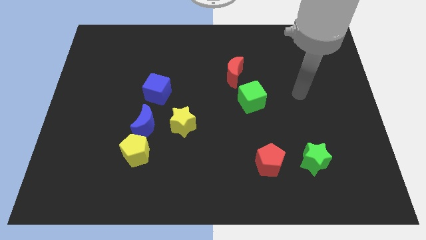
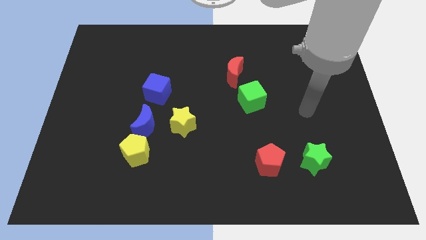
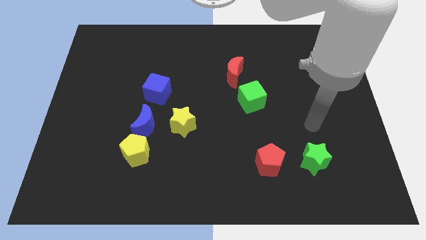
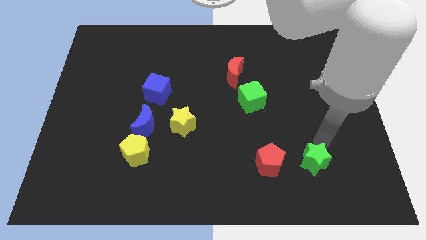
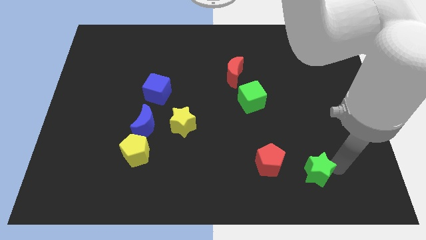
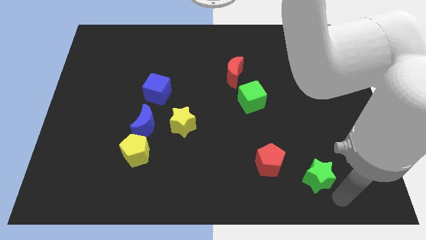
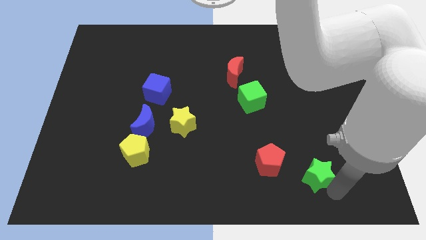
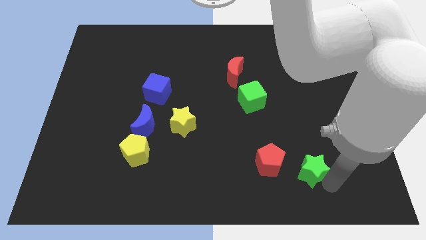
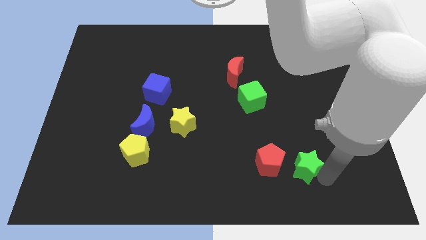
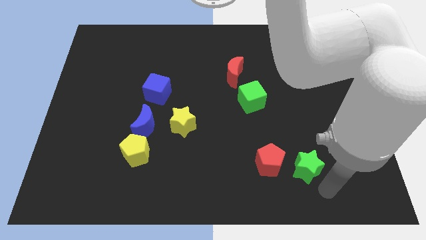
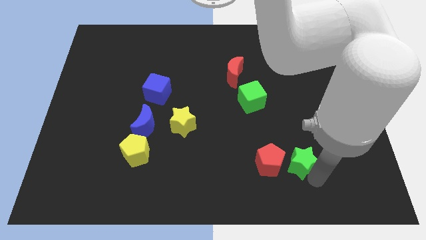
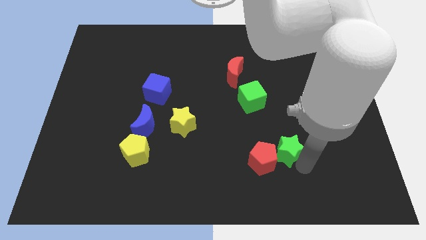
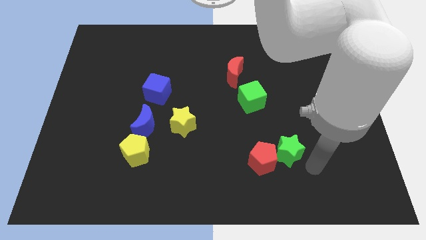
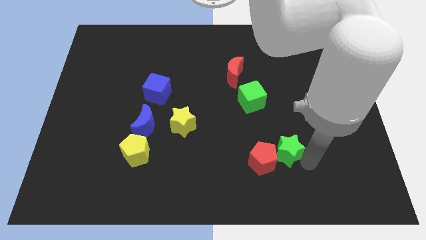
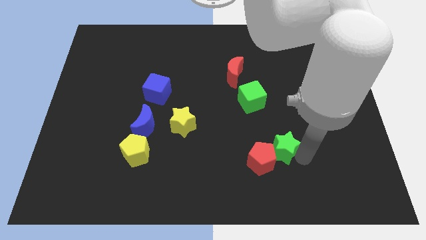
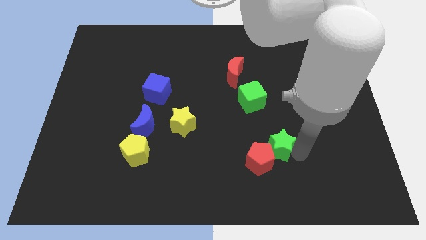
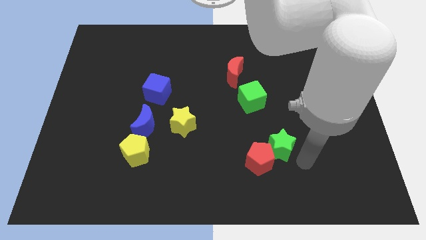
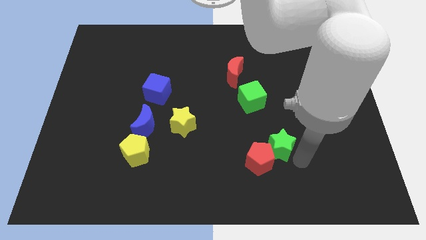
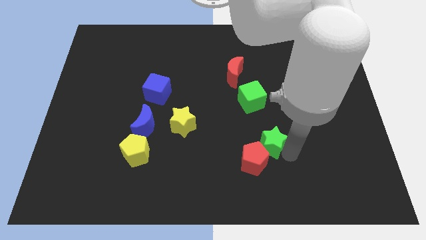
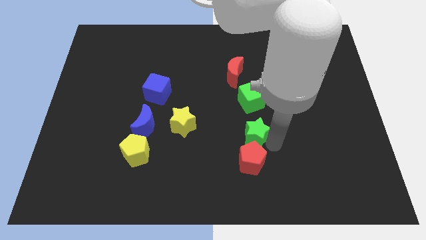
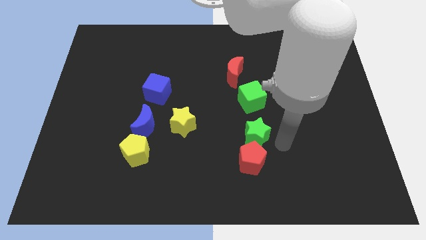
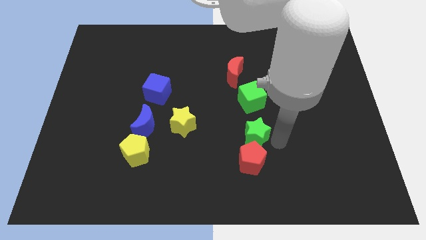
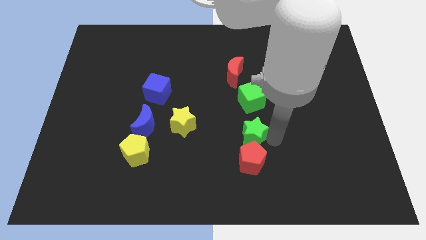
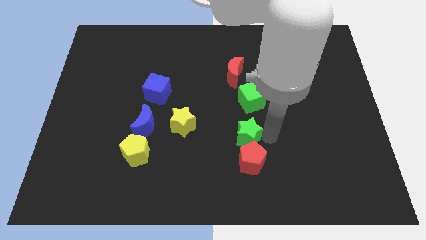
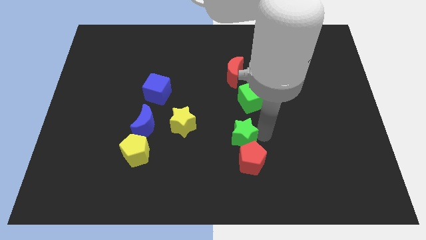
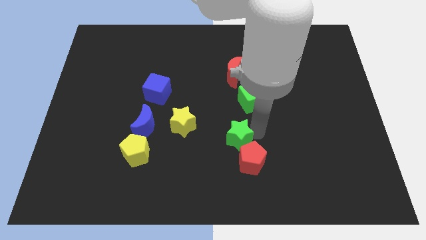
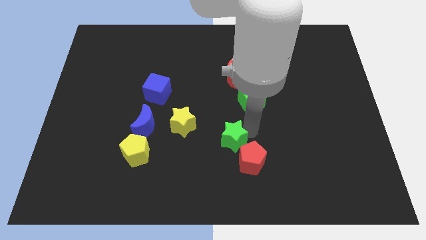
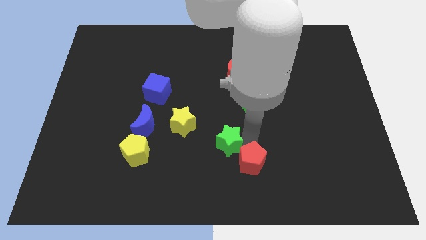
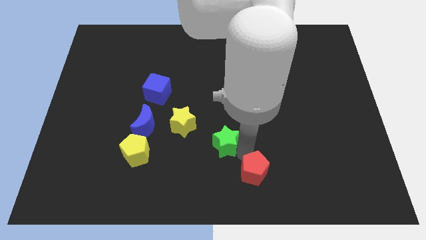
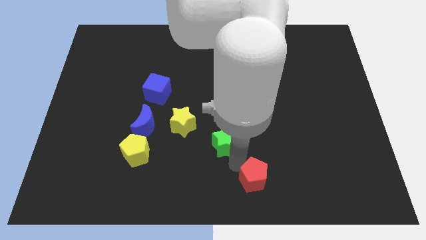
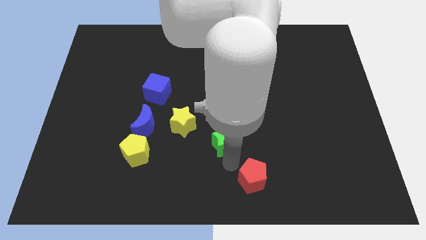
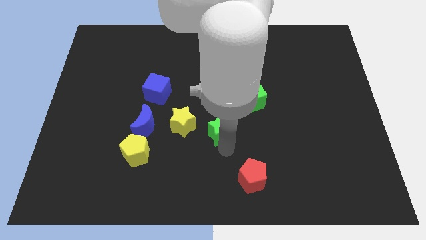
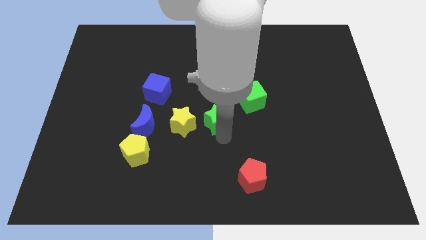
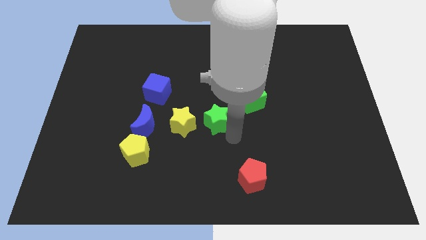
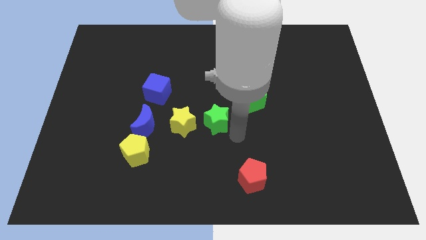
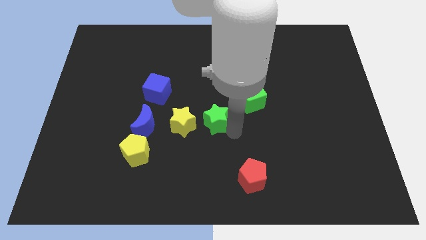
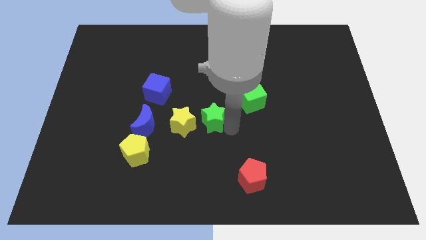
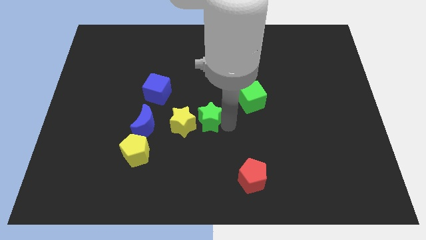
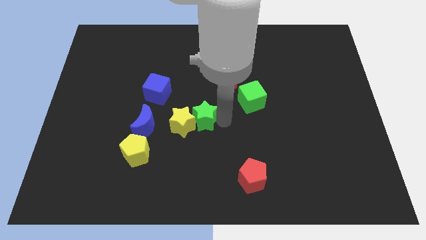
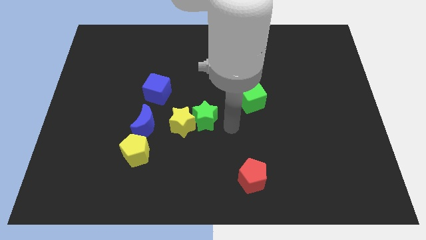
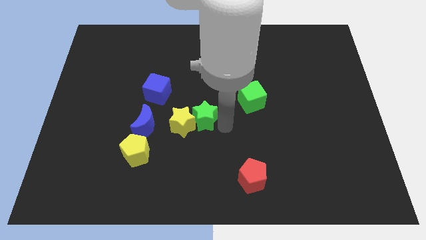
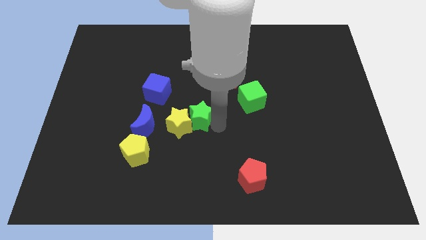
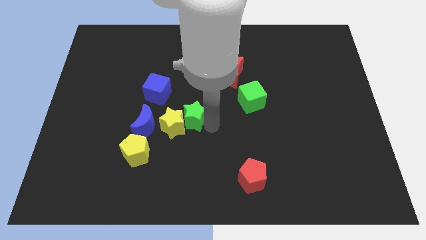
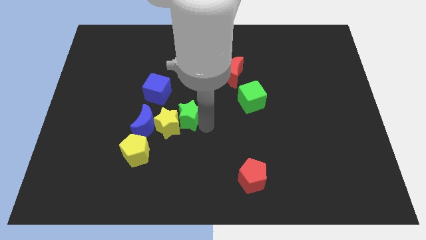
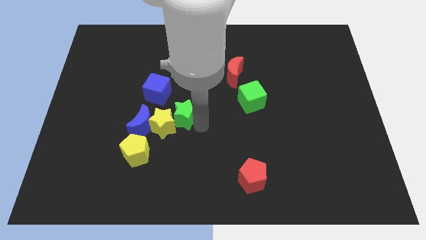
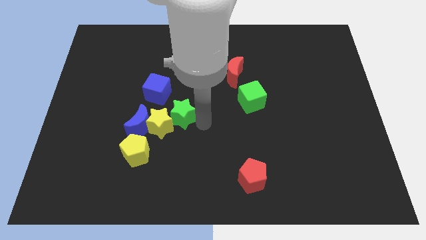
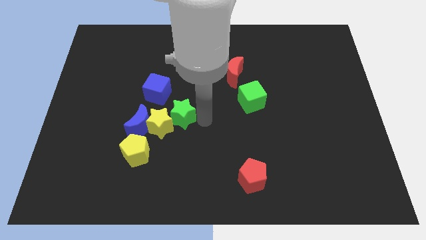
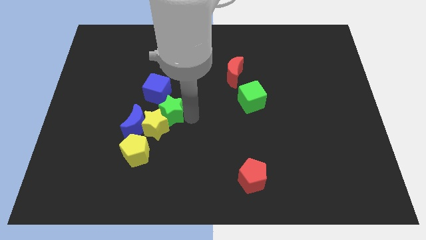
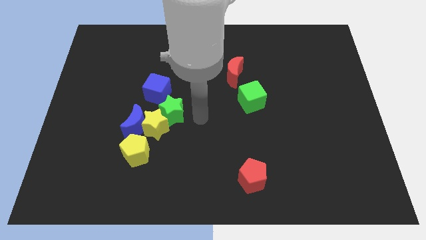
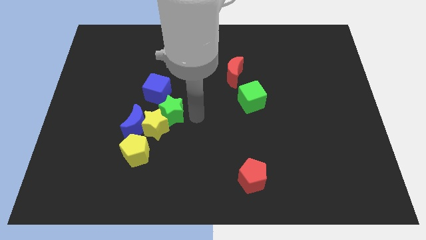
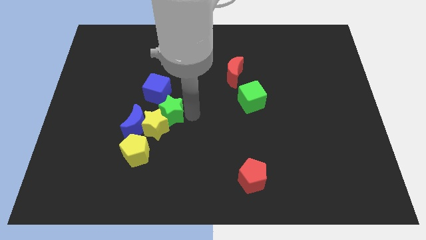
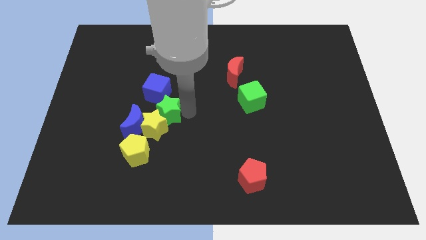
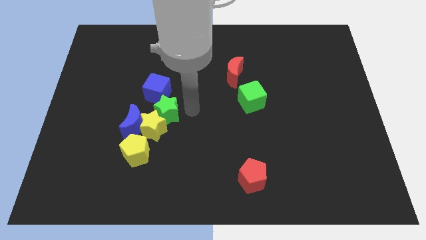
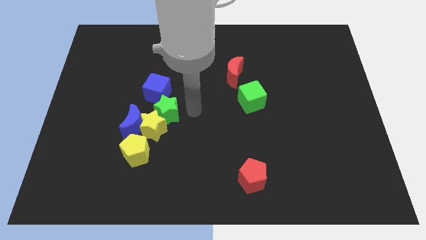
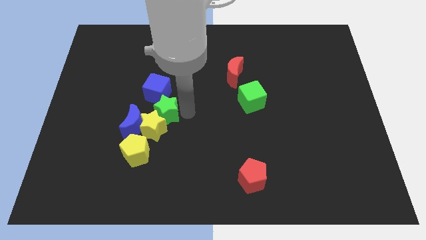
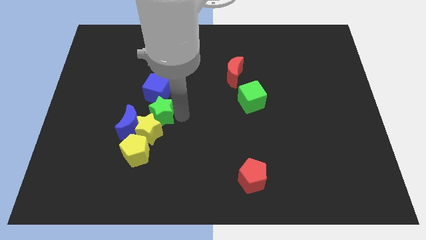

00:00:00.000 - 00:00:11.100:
move the green star above the yellow pentagon

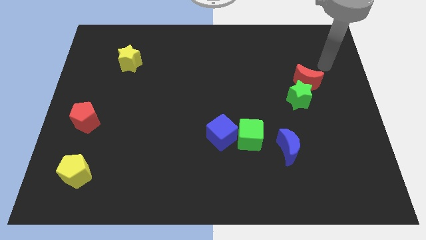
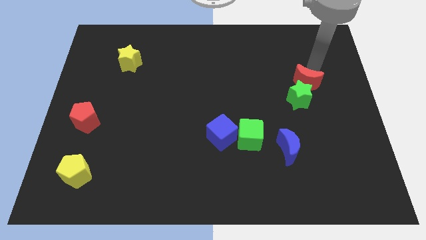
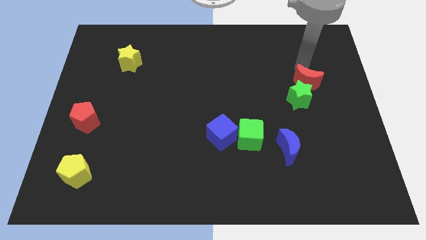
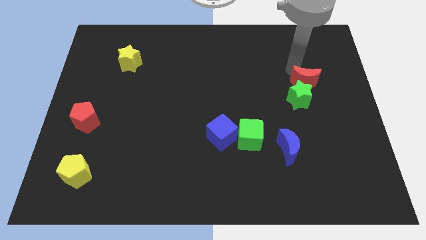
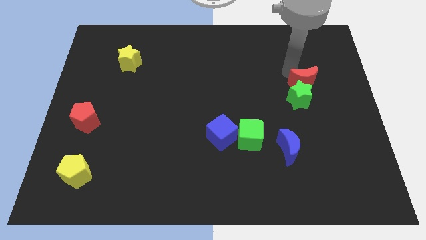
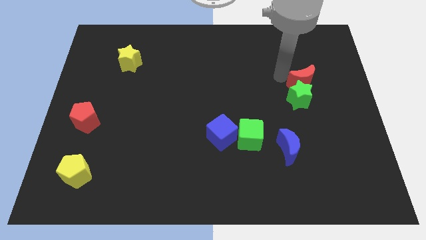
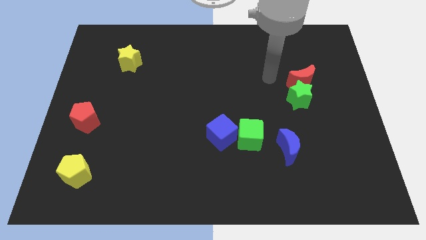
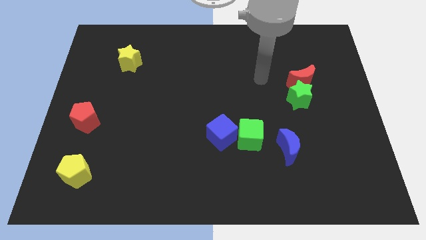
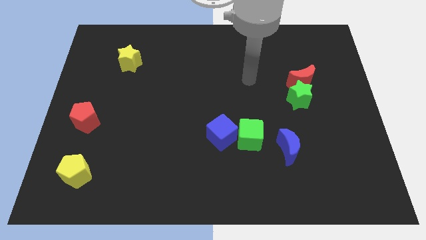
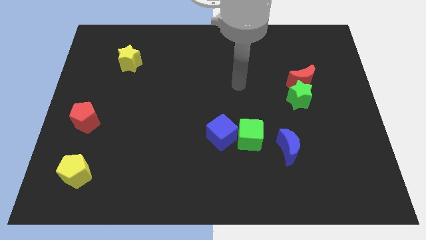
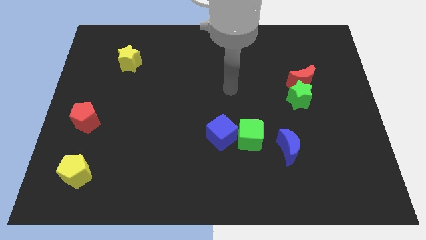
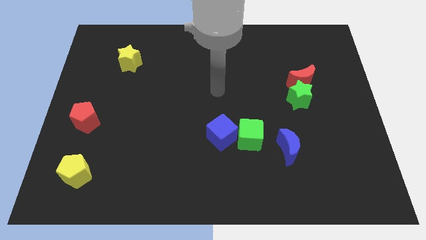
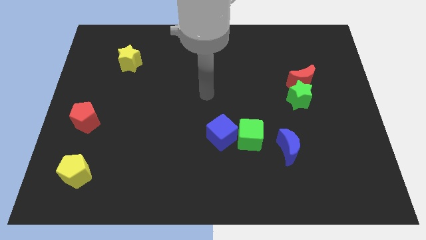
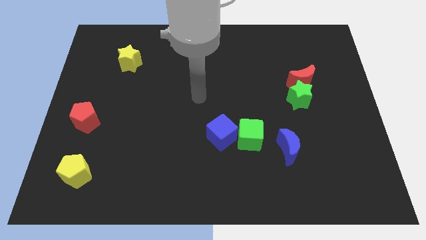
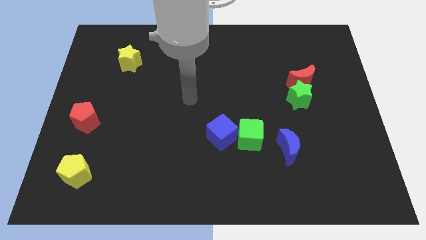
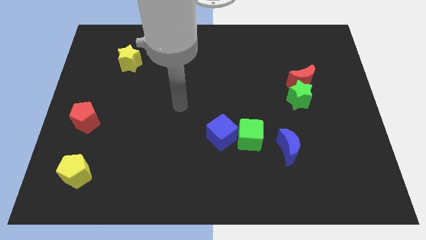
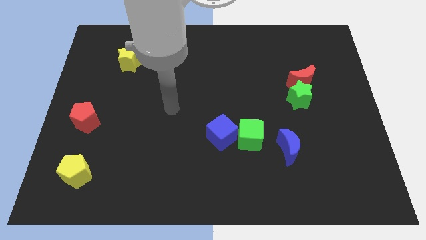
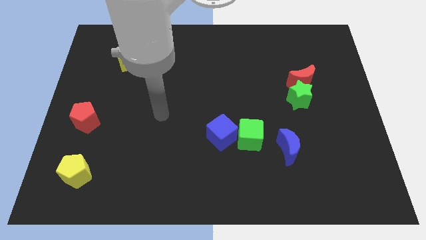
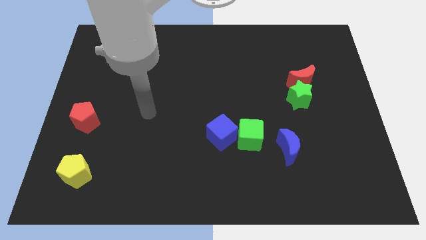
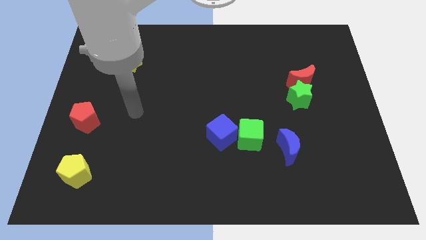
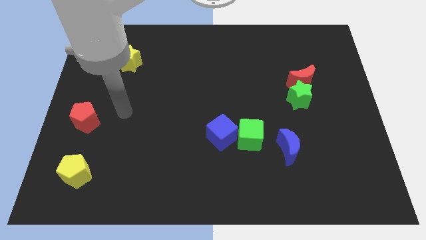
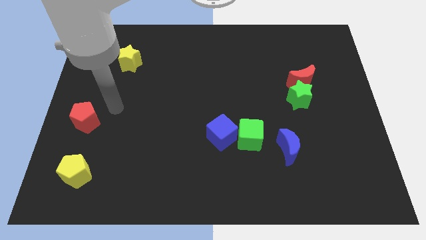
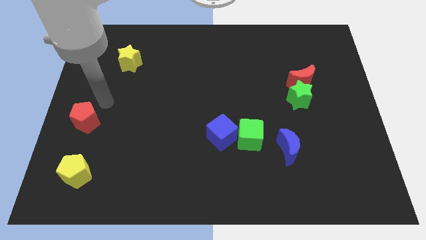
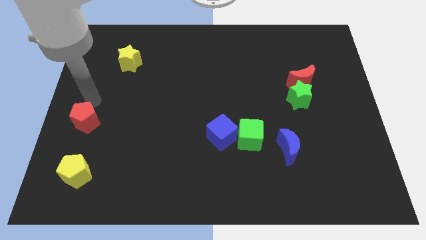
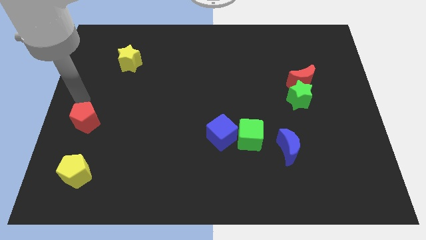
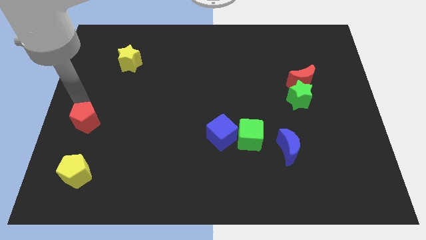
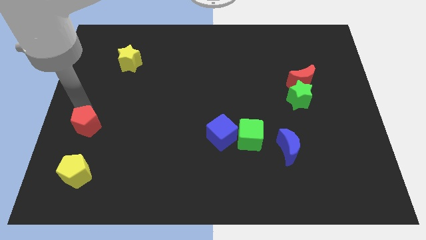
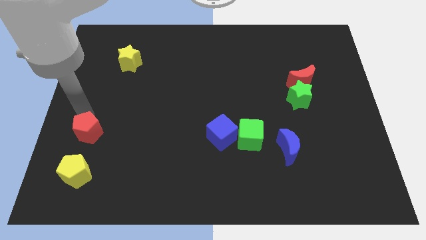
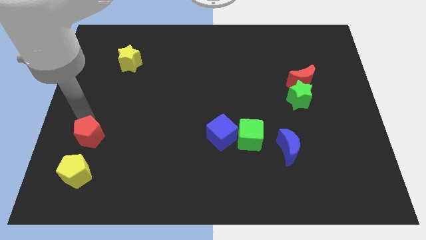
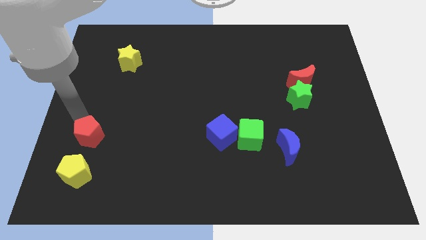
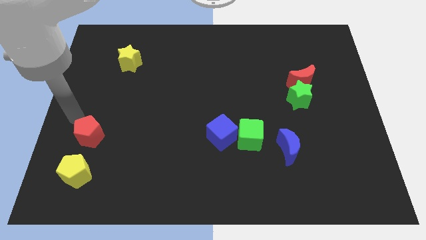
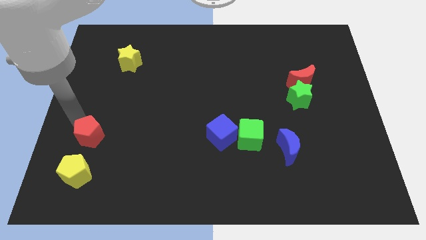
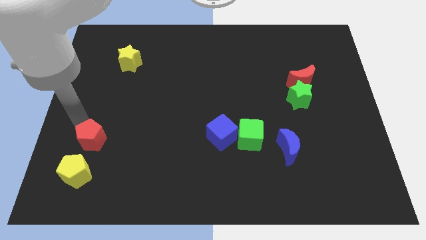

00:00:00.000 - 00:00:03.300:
slide the red pentagon to the top right of the yellow pentagon
